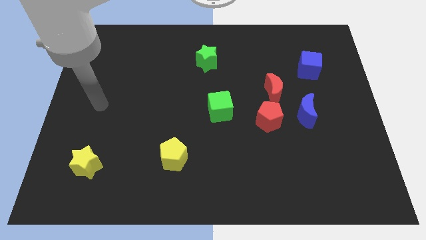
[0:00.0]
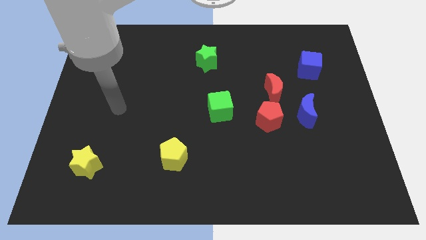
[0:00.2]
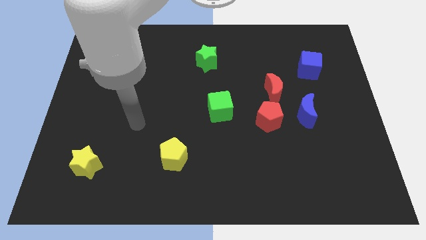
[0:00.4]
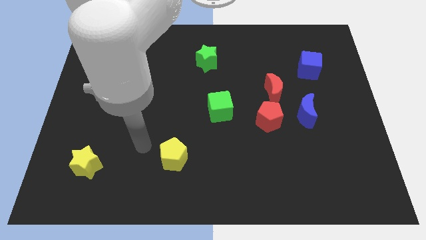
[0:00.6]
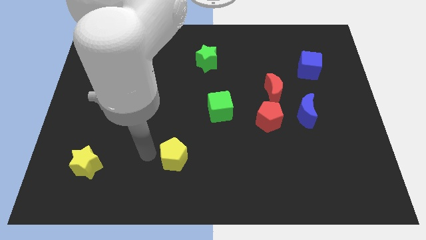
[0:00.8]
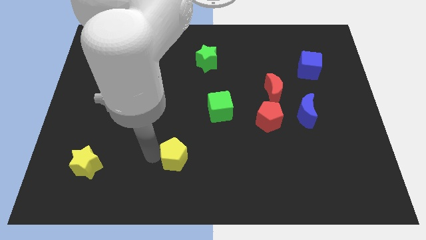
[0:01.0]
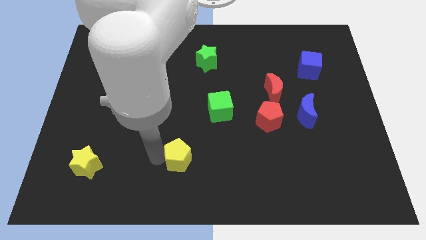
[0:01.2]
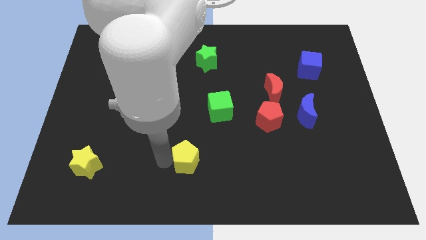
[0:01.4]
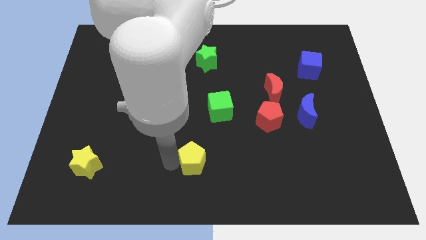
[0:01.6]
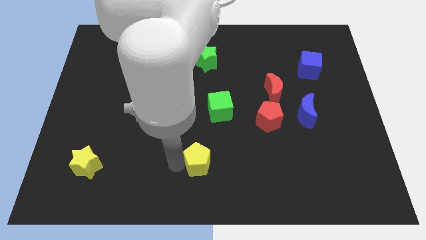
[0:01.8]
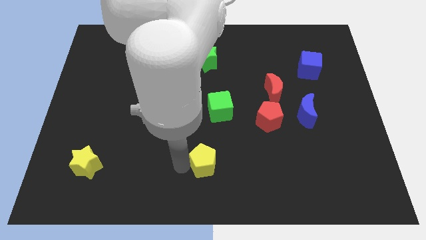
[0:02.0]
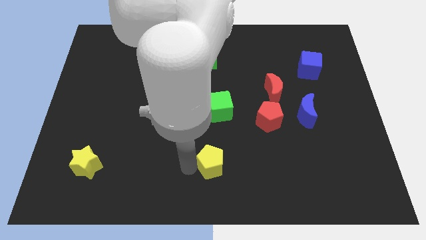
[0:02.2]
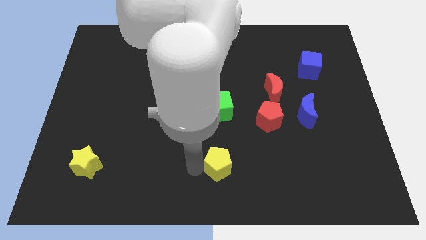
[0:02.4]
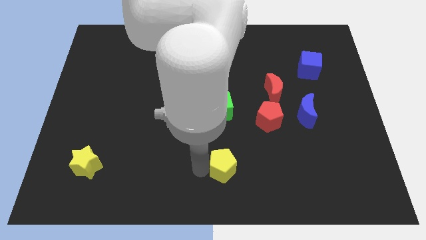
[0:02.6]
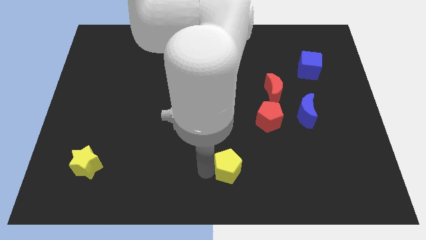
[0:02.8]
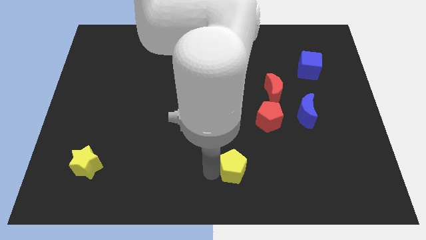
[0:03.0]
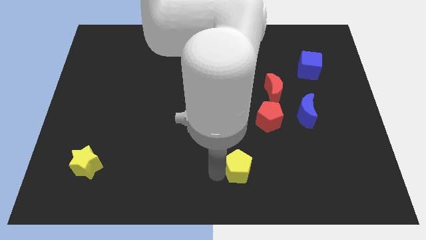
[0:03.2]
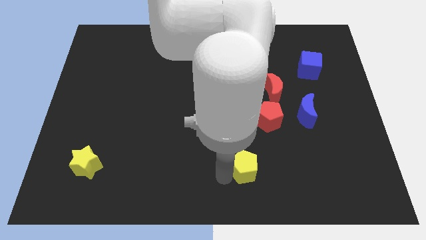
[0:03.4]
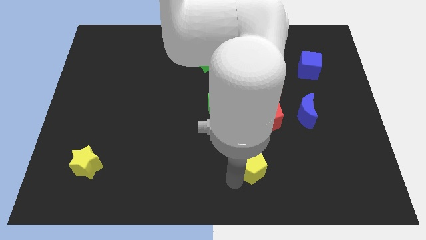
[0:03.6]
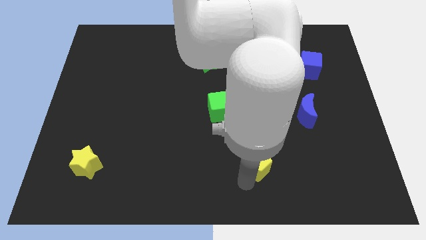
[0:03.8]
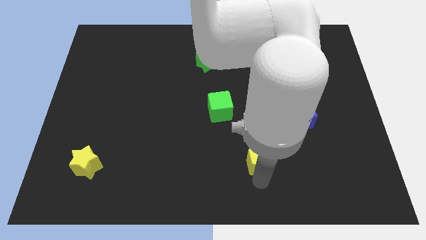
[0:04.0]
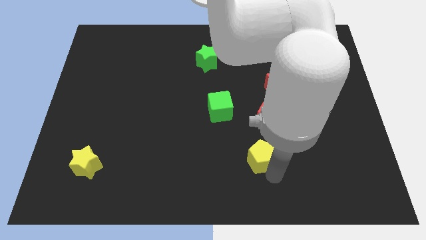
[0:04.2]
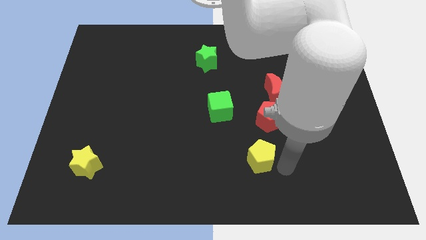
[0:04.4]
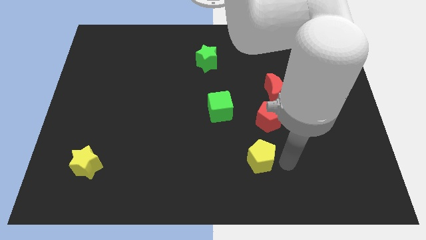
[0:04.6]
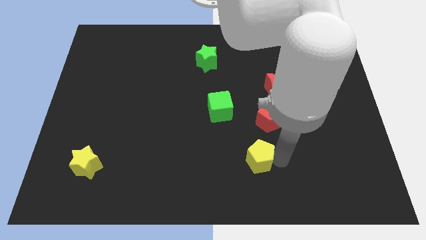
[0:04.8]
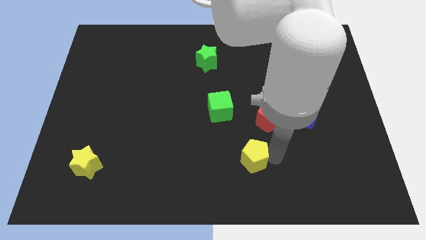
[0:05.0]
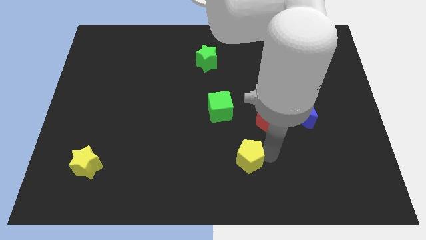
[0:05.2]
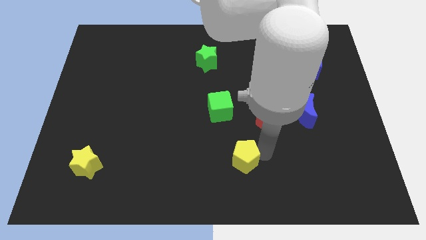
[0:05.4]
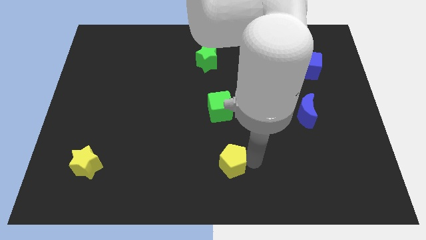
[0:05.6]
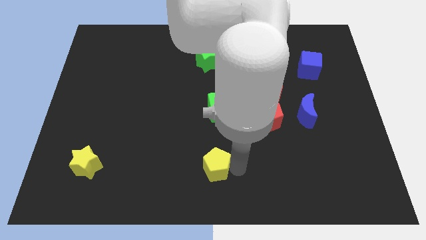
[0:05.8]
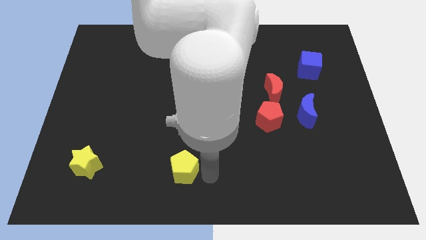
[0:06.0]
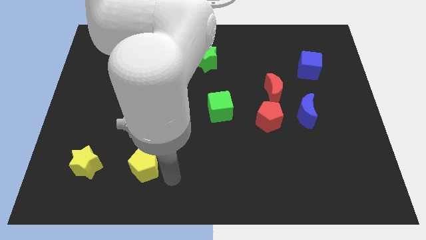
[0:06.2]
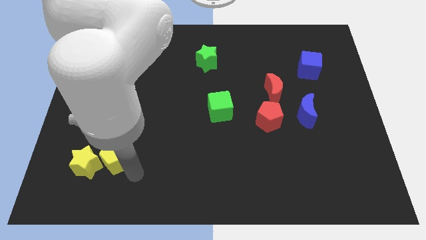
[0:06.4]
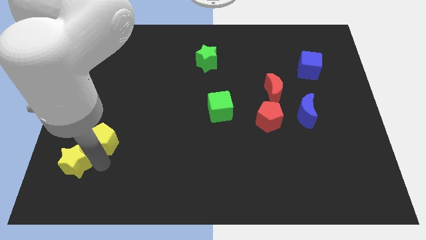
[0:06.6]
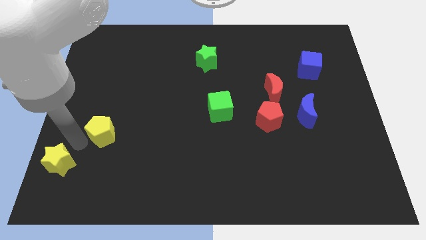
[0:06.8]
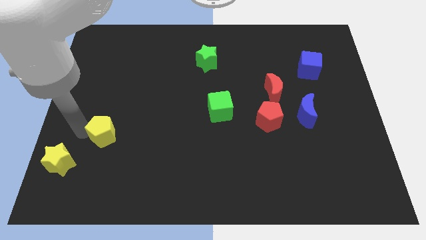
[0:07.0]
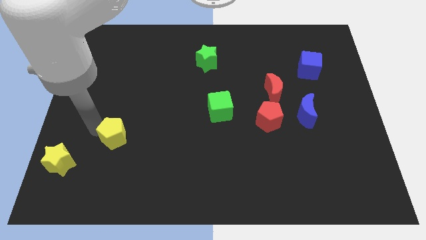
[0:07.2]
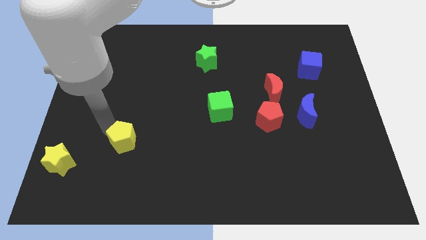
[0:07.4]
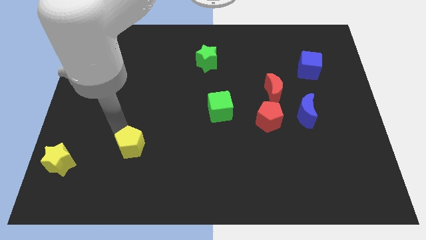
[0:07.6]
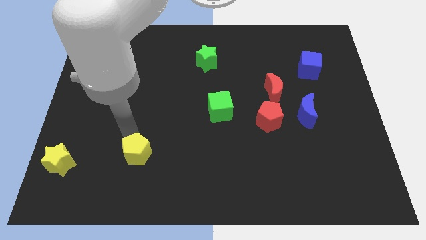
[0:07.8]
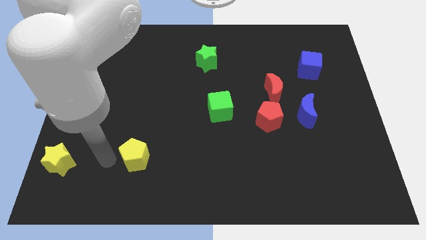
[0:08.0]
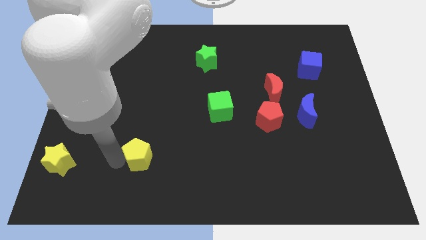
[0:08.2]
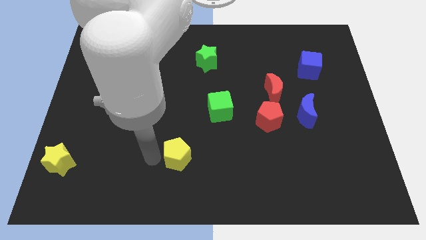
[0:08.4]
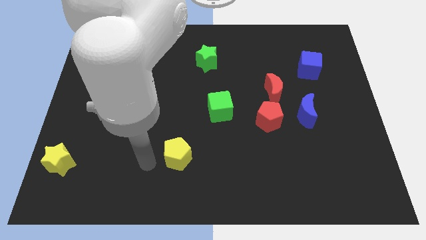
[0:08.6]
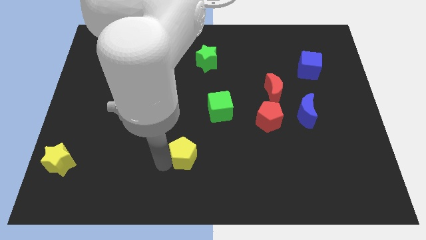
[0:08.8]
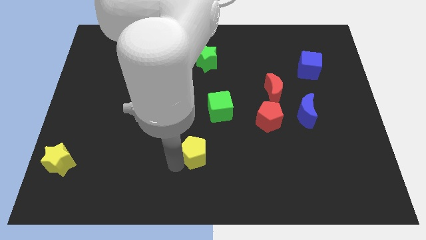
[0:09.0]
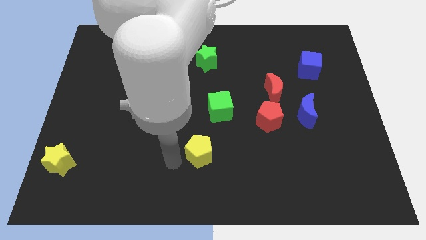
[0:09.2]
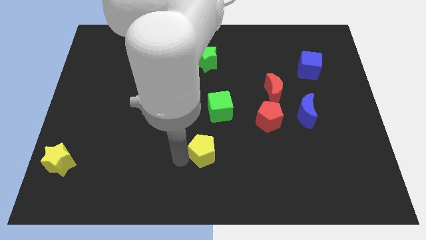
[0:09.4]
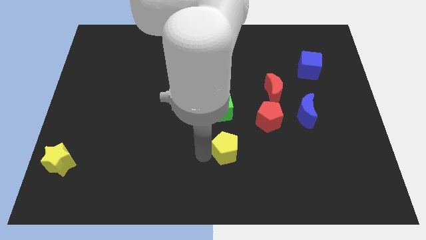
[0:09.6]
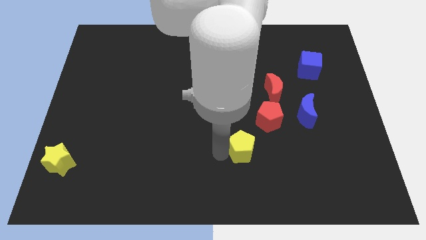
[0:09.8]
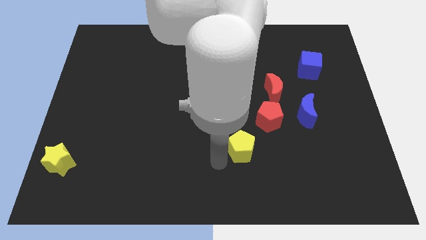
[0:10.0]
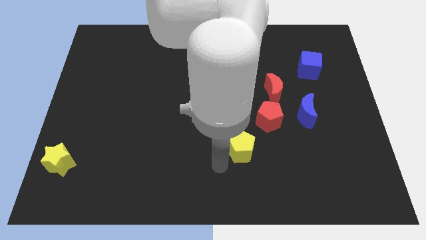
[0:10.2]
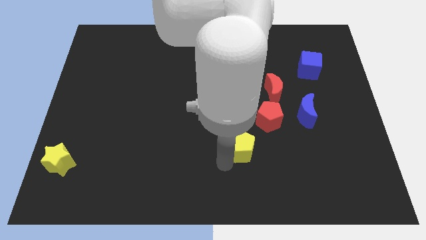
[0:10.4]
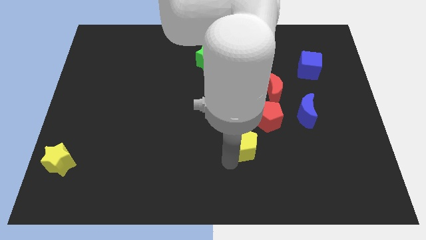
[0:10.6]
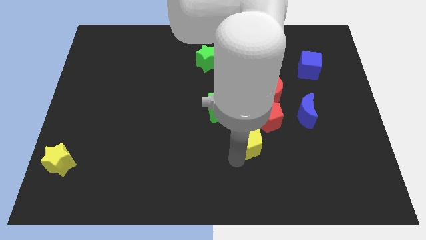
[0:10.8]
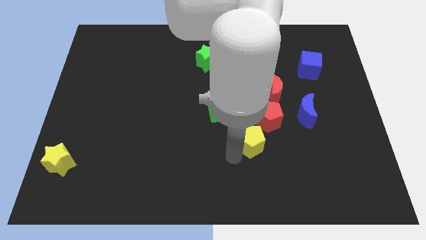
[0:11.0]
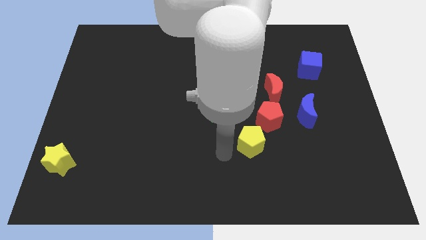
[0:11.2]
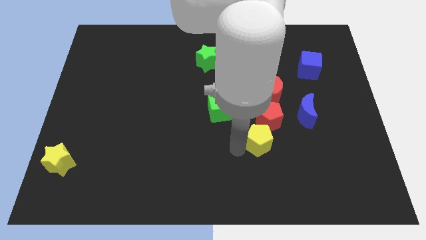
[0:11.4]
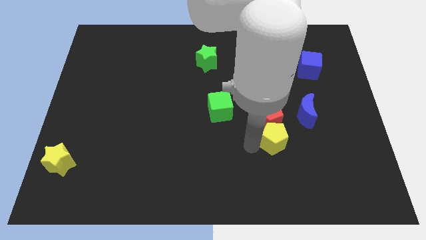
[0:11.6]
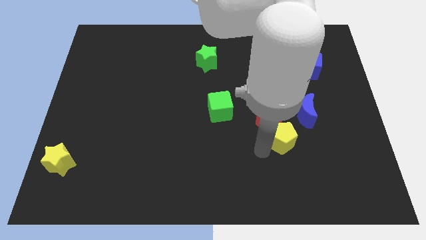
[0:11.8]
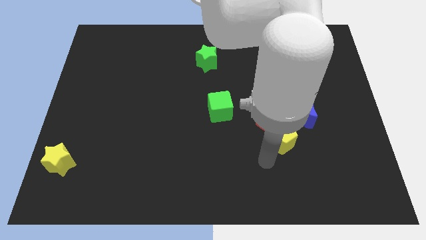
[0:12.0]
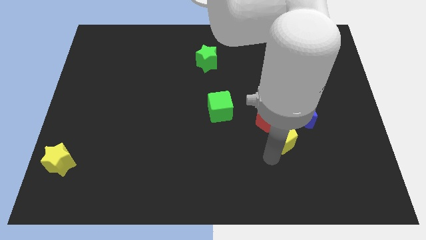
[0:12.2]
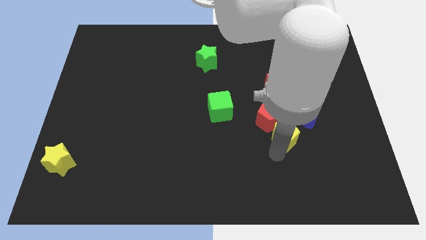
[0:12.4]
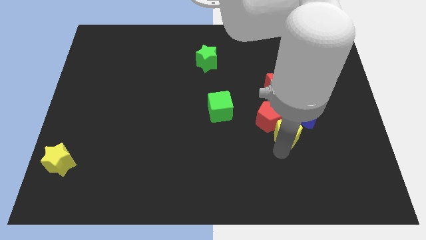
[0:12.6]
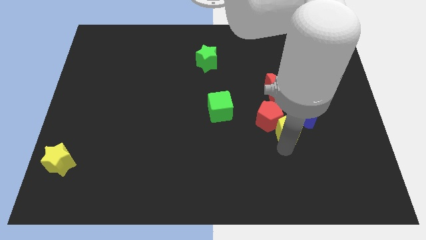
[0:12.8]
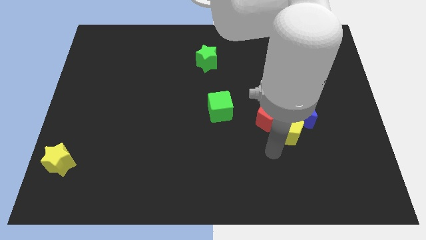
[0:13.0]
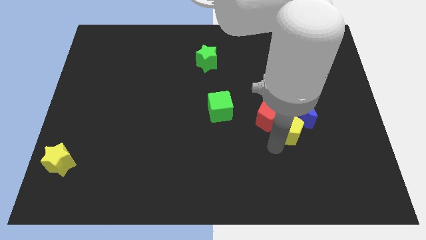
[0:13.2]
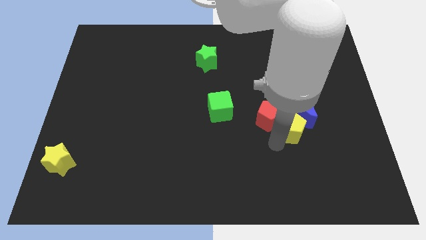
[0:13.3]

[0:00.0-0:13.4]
move the yellow pentagon towards the blue moon

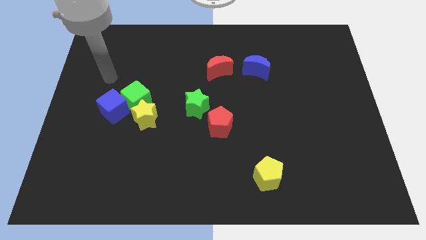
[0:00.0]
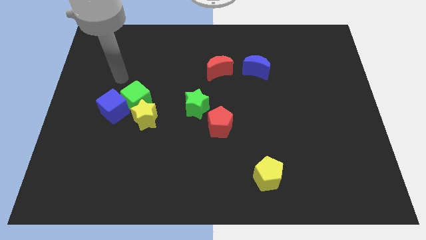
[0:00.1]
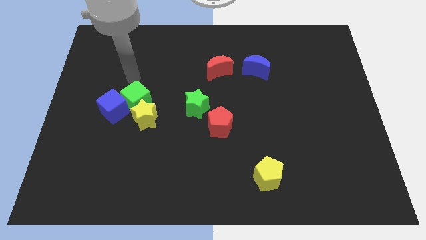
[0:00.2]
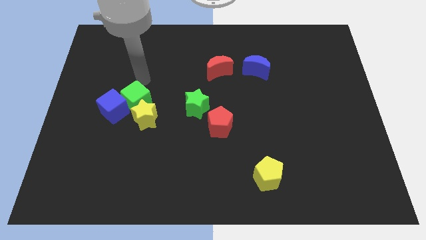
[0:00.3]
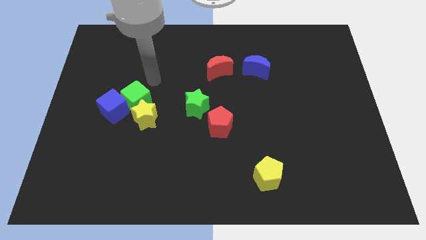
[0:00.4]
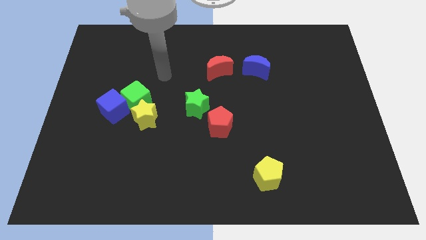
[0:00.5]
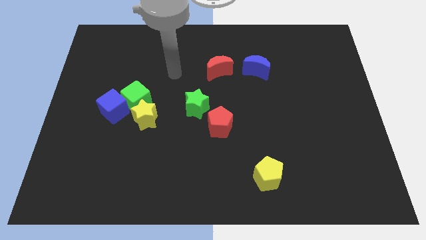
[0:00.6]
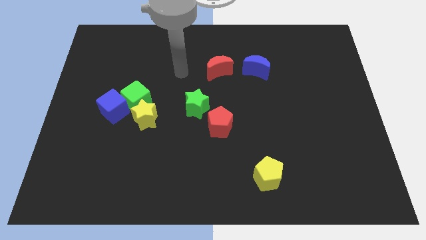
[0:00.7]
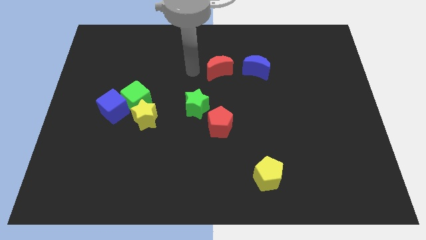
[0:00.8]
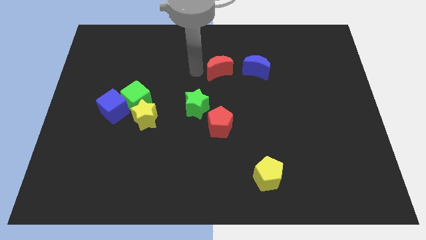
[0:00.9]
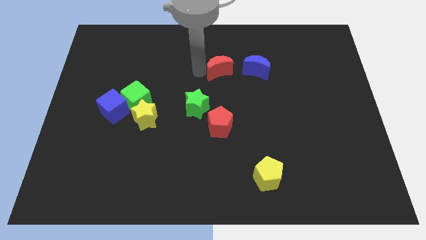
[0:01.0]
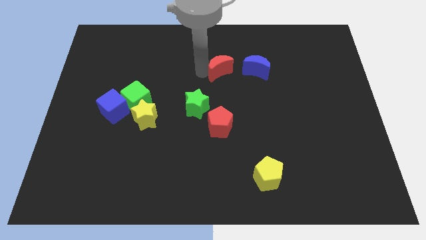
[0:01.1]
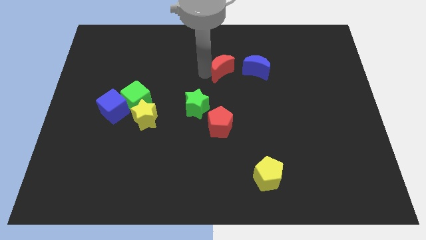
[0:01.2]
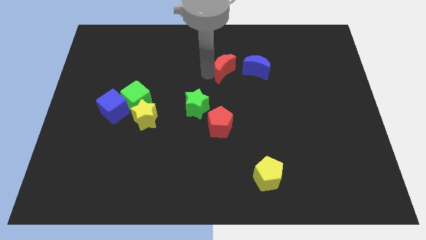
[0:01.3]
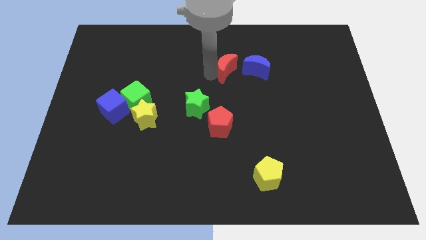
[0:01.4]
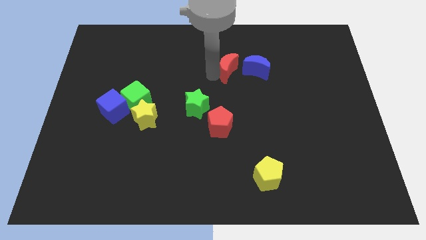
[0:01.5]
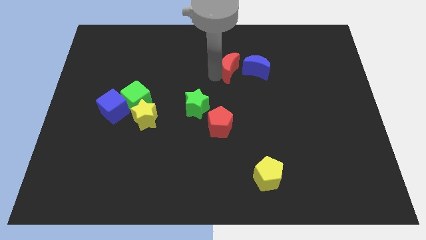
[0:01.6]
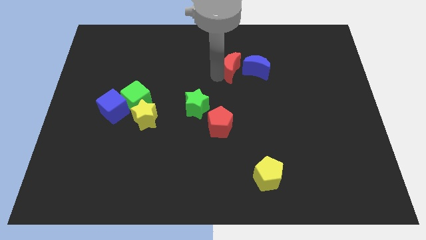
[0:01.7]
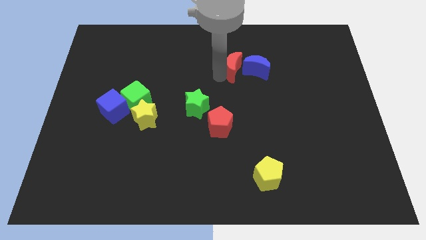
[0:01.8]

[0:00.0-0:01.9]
push the red moon towards the blue moon
